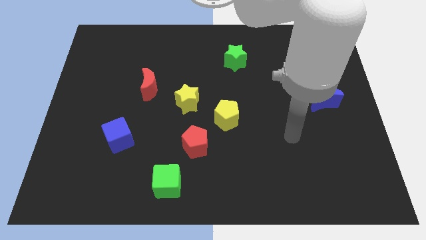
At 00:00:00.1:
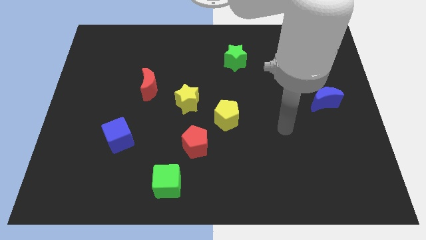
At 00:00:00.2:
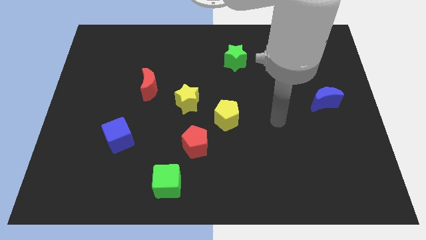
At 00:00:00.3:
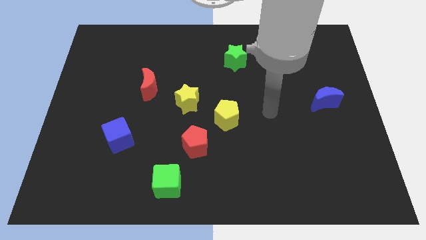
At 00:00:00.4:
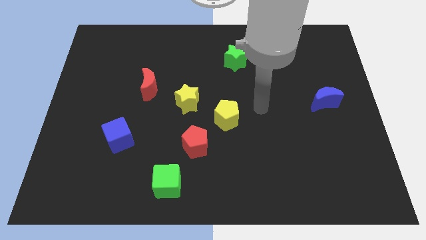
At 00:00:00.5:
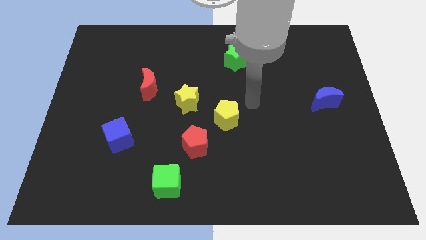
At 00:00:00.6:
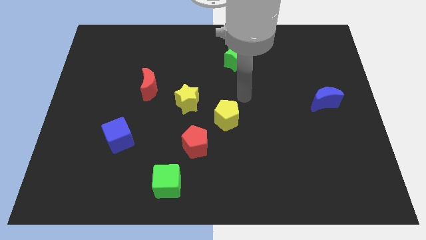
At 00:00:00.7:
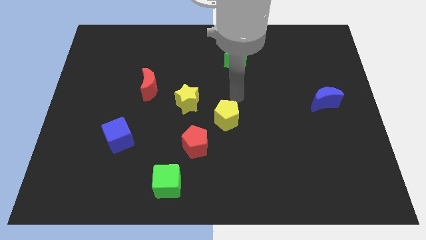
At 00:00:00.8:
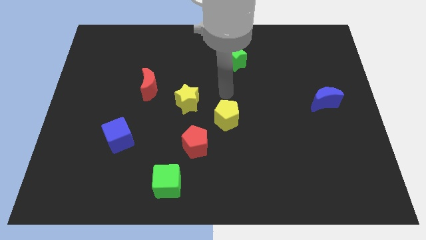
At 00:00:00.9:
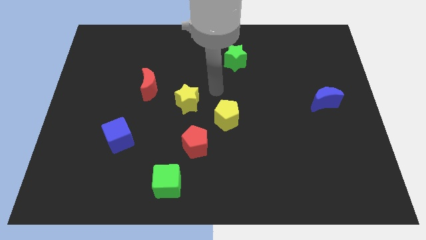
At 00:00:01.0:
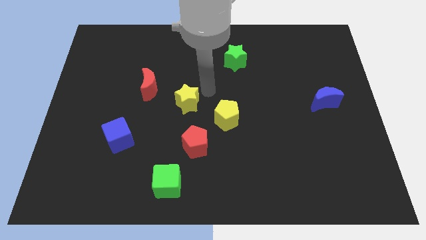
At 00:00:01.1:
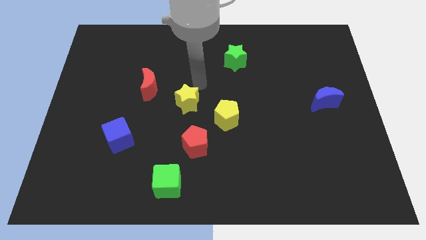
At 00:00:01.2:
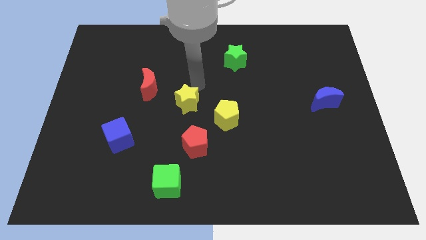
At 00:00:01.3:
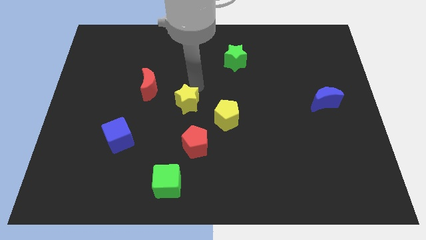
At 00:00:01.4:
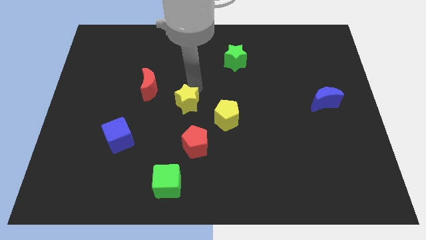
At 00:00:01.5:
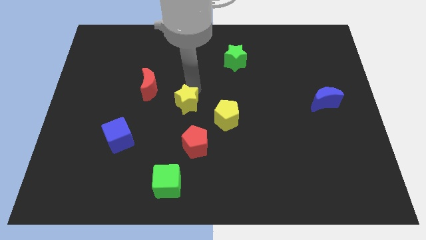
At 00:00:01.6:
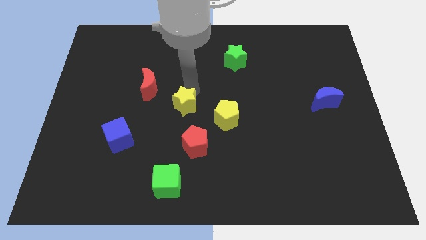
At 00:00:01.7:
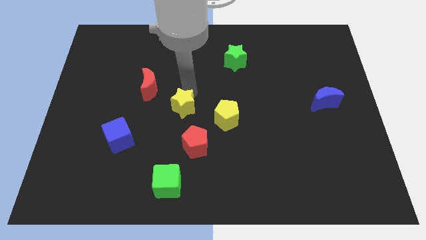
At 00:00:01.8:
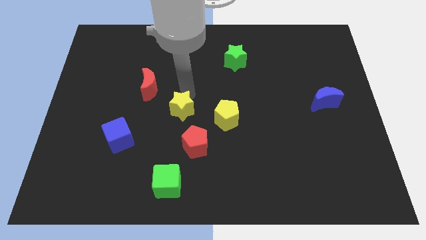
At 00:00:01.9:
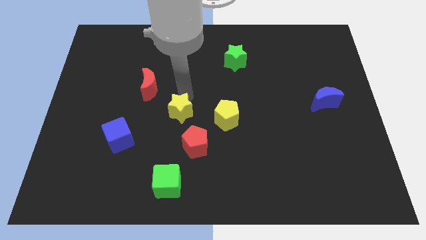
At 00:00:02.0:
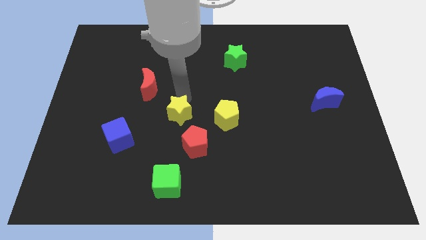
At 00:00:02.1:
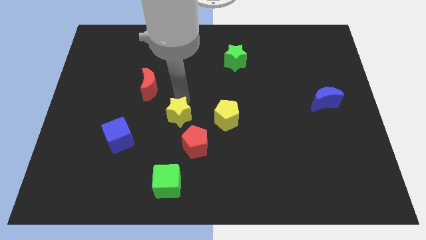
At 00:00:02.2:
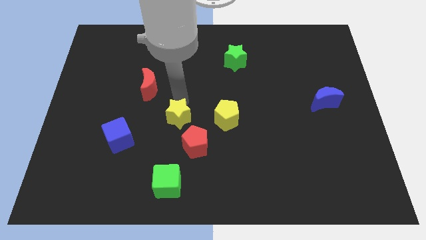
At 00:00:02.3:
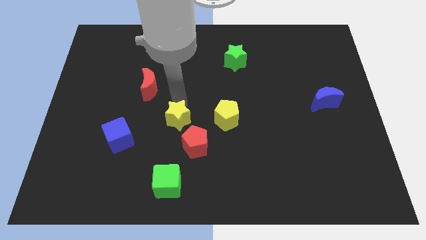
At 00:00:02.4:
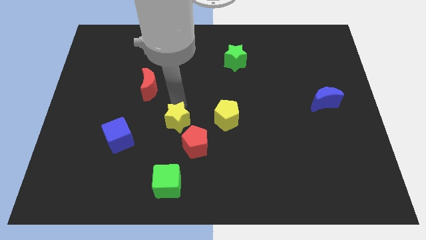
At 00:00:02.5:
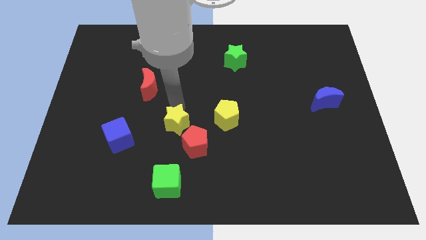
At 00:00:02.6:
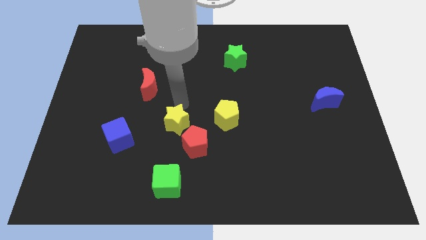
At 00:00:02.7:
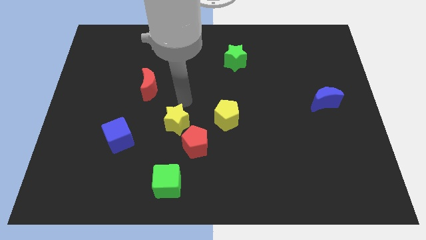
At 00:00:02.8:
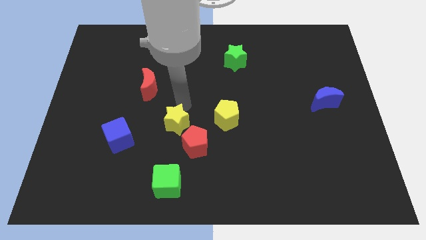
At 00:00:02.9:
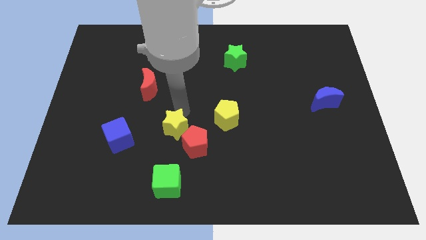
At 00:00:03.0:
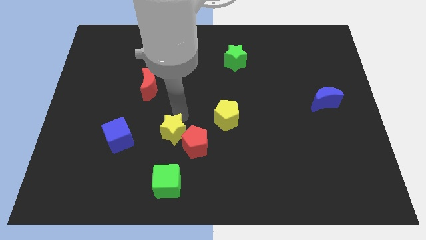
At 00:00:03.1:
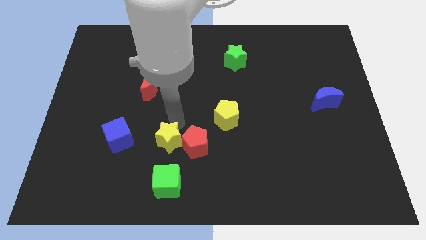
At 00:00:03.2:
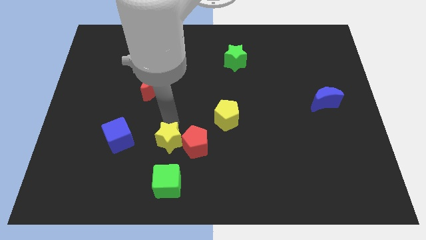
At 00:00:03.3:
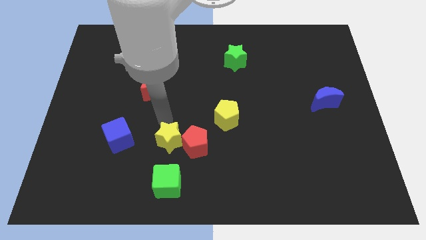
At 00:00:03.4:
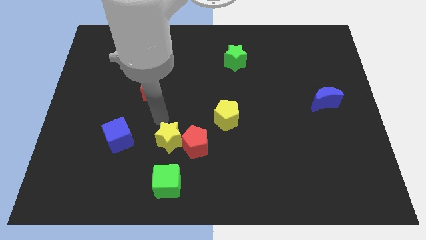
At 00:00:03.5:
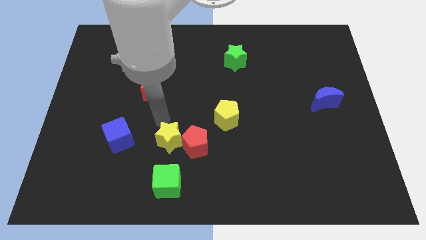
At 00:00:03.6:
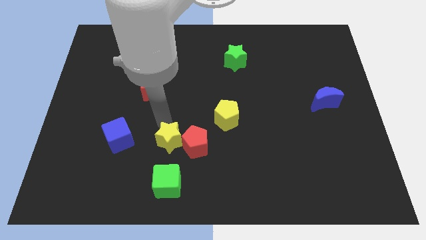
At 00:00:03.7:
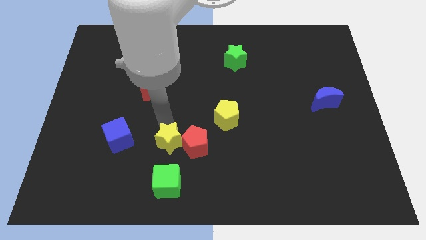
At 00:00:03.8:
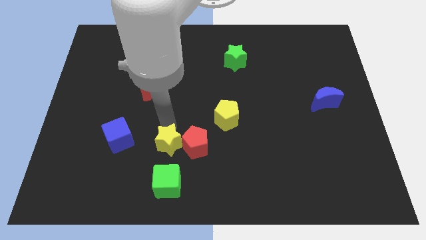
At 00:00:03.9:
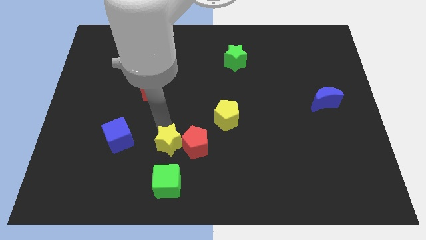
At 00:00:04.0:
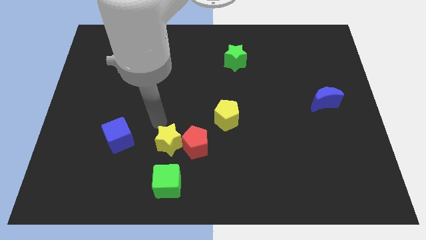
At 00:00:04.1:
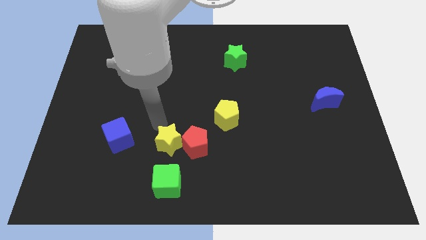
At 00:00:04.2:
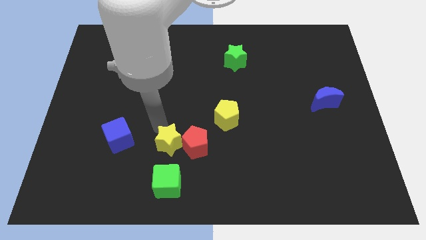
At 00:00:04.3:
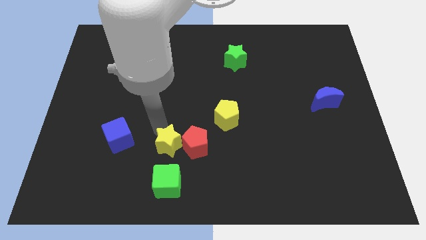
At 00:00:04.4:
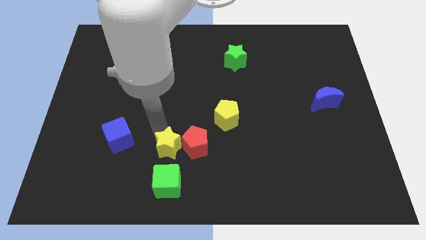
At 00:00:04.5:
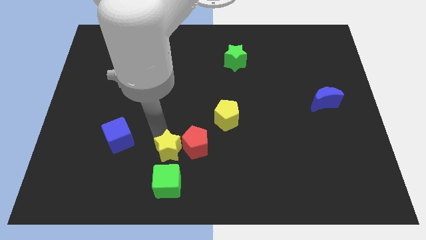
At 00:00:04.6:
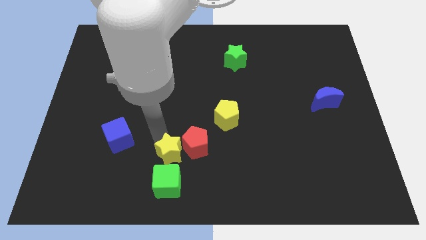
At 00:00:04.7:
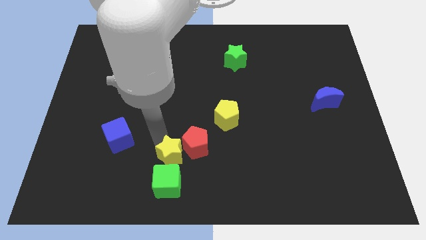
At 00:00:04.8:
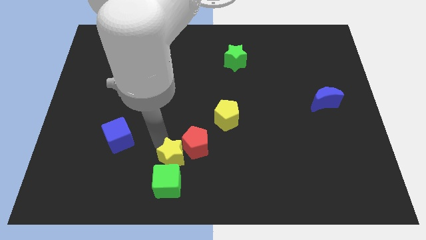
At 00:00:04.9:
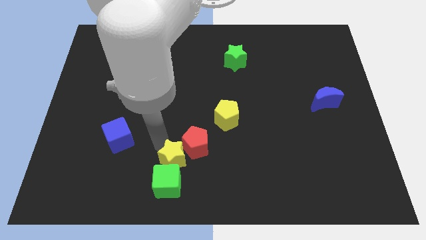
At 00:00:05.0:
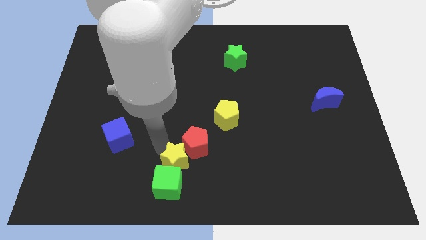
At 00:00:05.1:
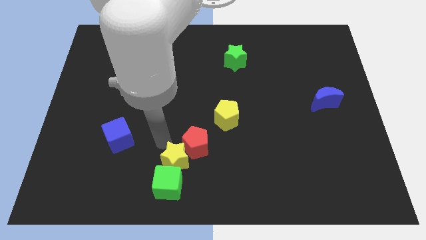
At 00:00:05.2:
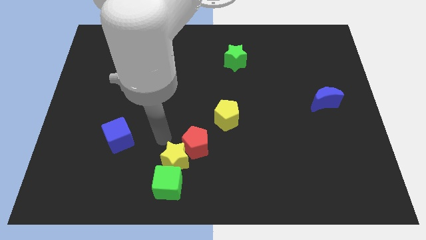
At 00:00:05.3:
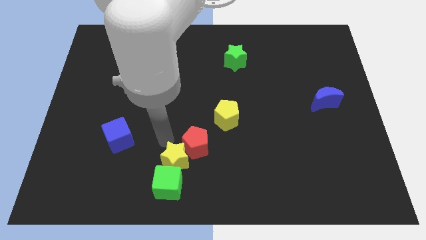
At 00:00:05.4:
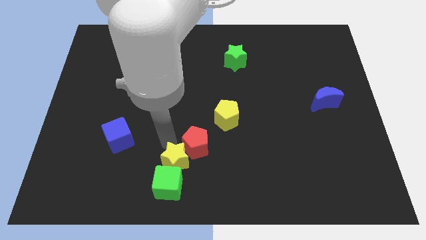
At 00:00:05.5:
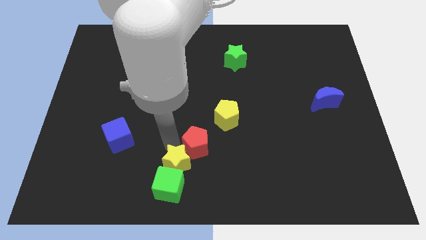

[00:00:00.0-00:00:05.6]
slide the yellow star to the bottom side
